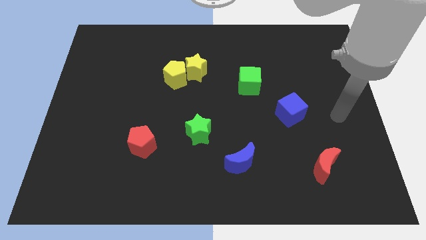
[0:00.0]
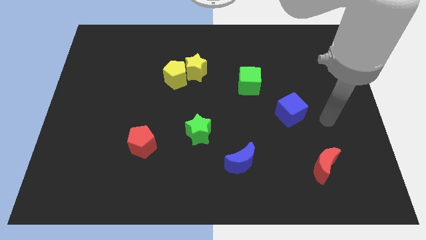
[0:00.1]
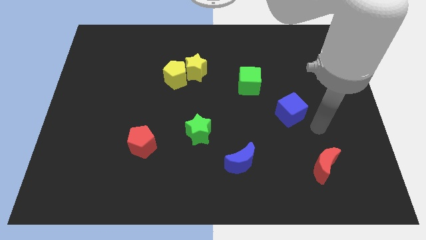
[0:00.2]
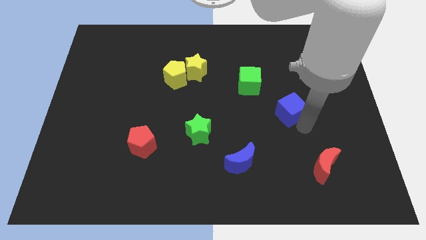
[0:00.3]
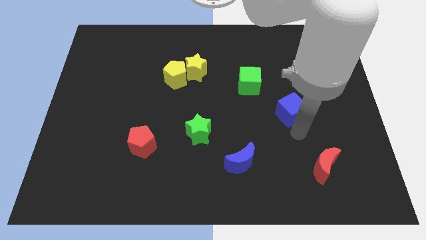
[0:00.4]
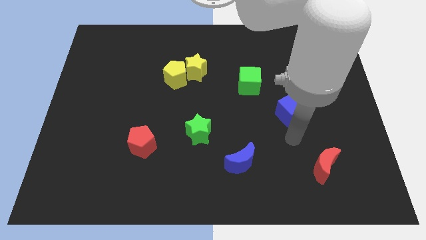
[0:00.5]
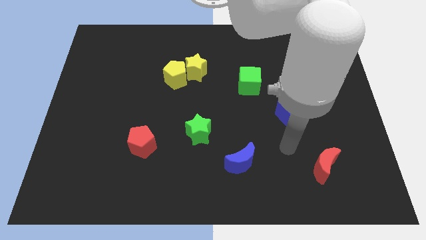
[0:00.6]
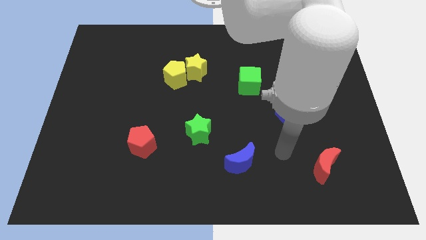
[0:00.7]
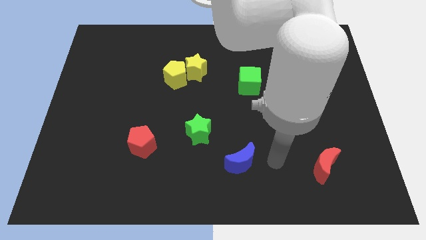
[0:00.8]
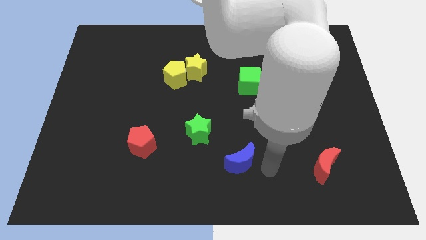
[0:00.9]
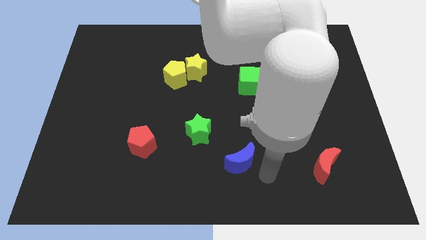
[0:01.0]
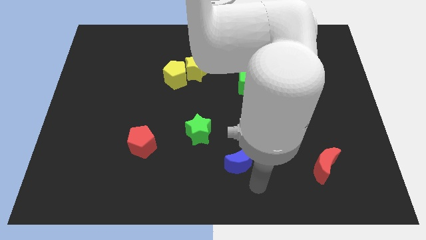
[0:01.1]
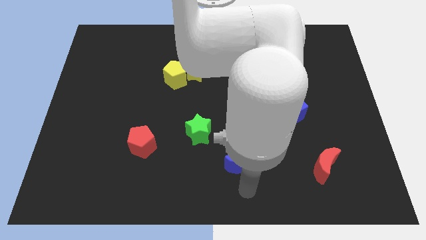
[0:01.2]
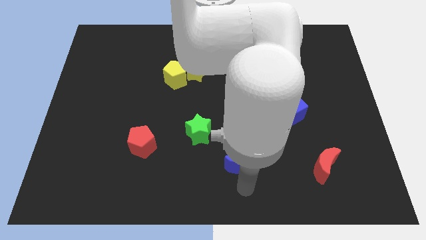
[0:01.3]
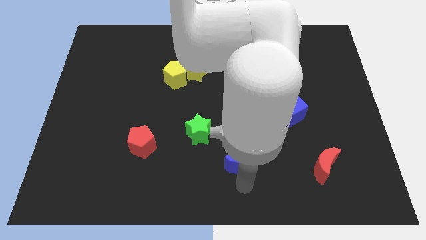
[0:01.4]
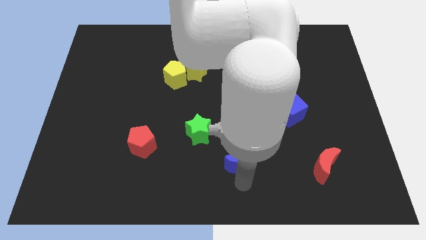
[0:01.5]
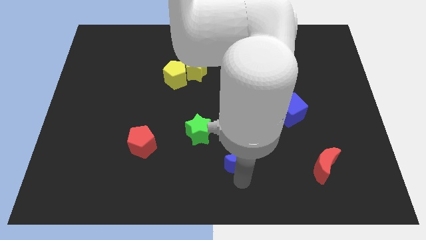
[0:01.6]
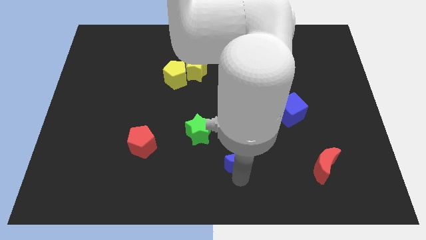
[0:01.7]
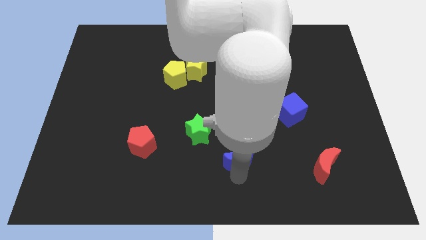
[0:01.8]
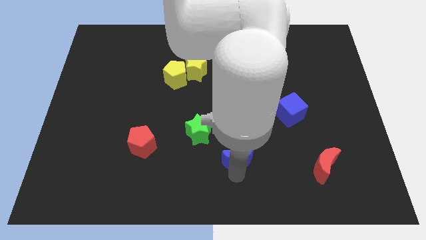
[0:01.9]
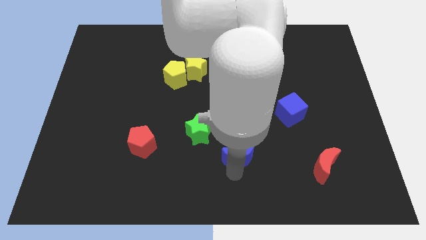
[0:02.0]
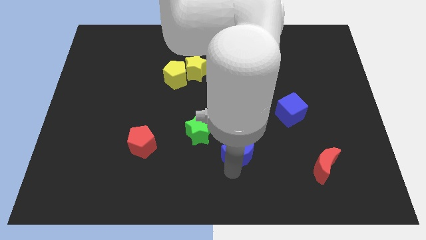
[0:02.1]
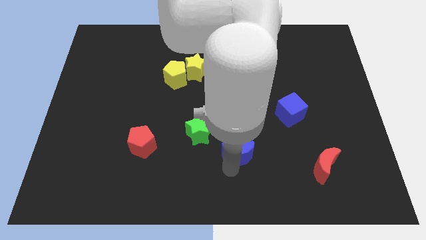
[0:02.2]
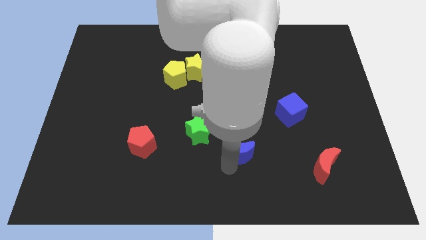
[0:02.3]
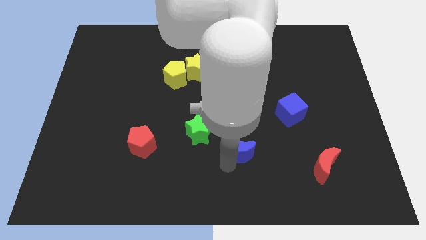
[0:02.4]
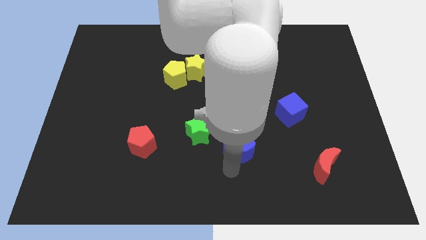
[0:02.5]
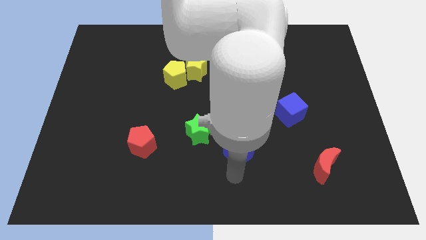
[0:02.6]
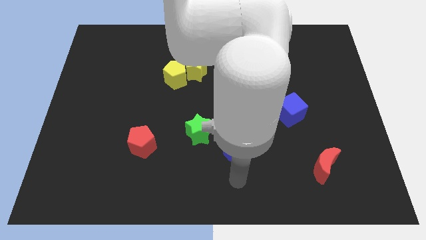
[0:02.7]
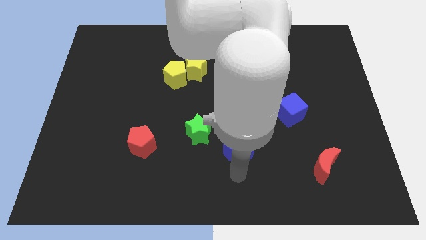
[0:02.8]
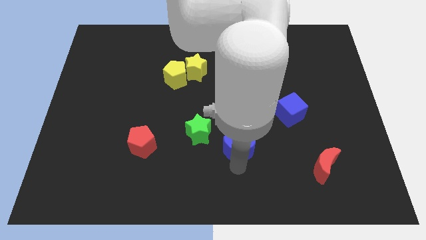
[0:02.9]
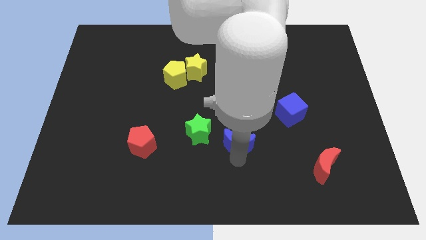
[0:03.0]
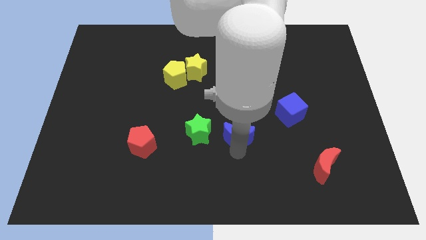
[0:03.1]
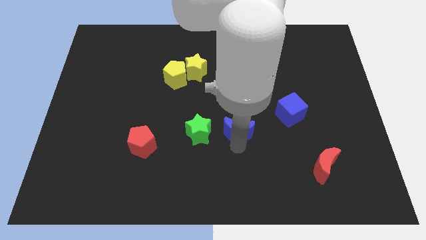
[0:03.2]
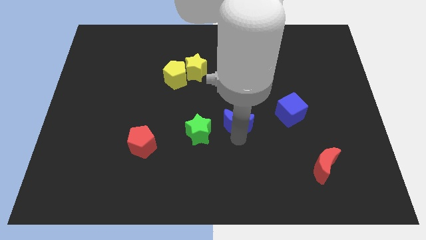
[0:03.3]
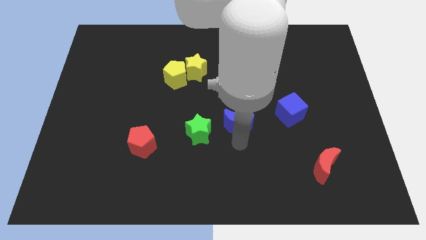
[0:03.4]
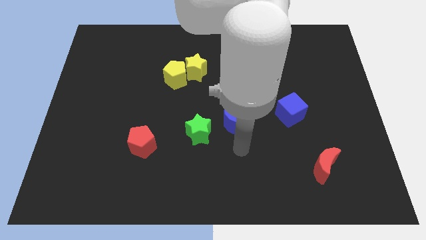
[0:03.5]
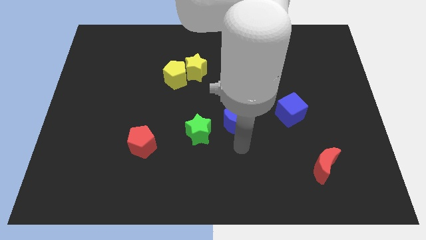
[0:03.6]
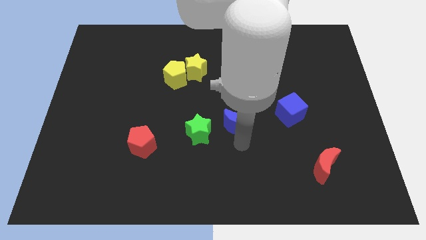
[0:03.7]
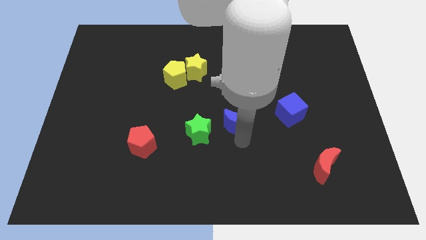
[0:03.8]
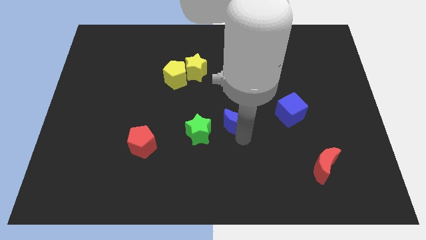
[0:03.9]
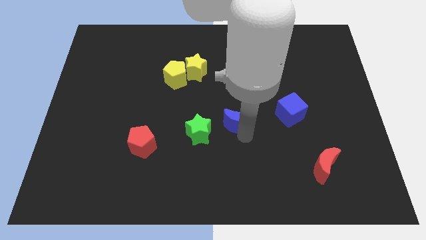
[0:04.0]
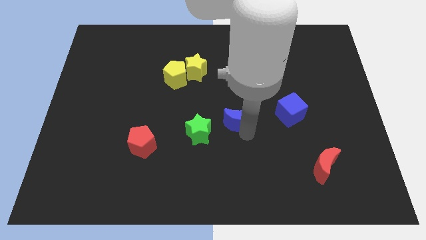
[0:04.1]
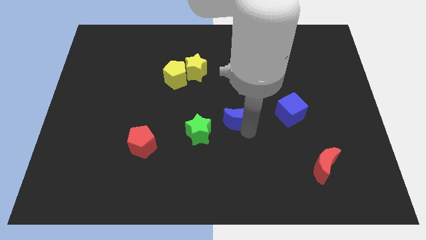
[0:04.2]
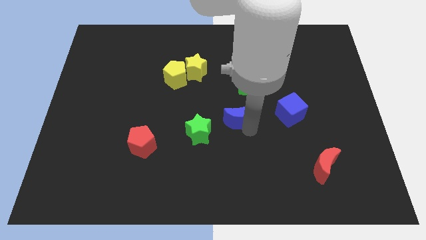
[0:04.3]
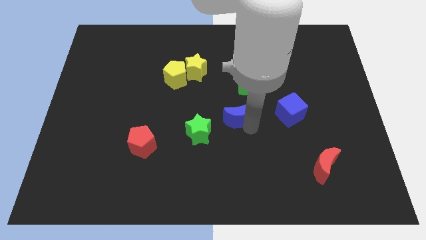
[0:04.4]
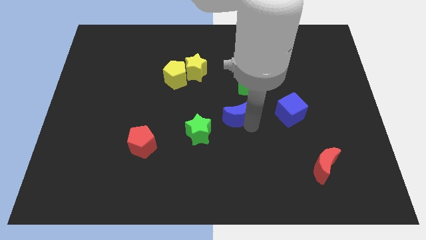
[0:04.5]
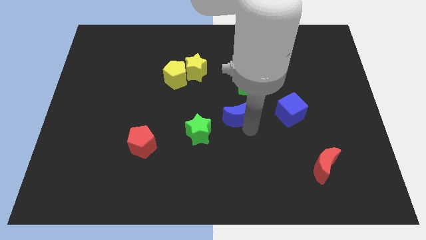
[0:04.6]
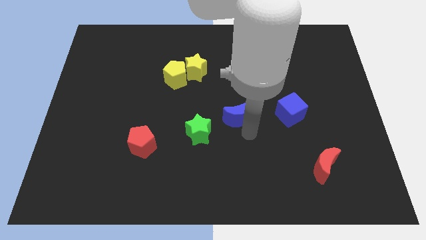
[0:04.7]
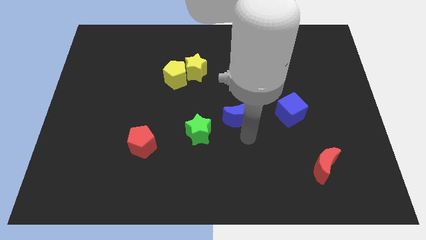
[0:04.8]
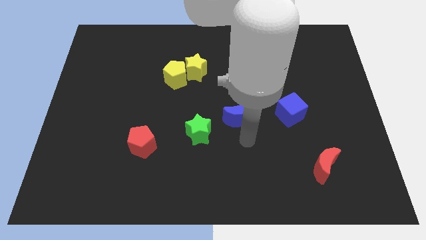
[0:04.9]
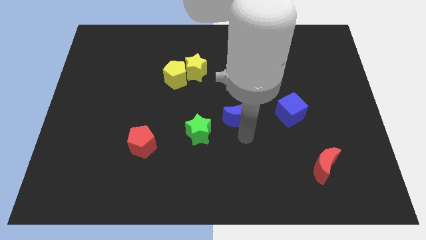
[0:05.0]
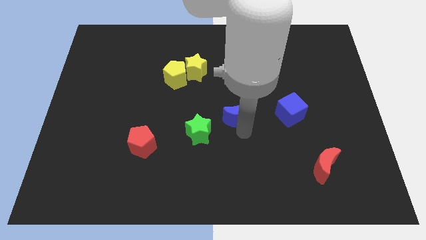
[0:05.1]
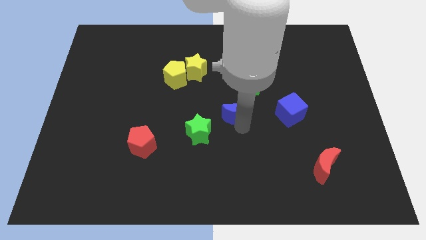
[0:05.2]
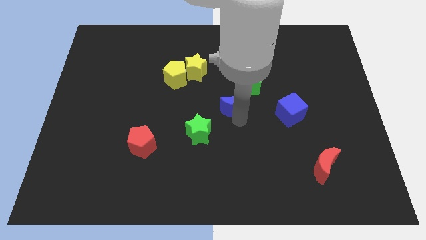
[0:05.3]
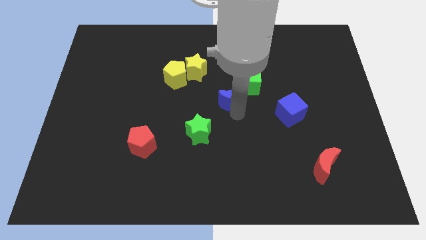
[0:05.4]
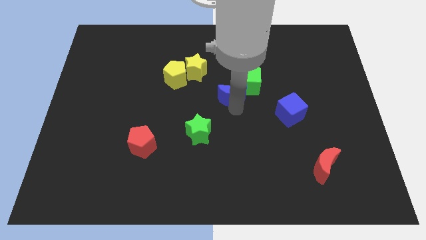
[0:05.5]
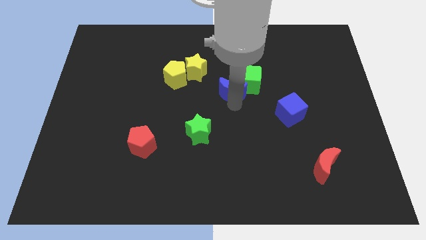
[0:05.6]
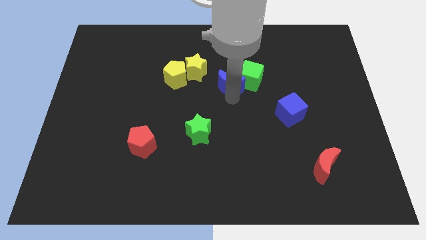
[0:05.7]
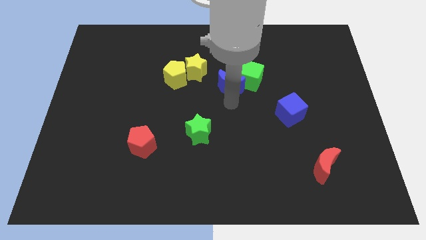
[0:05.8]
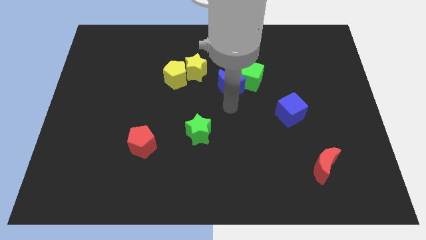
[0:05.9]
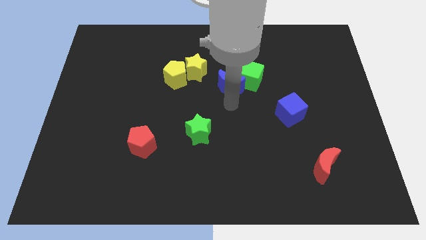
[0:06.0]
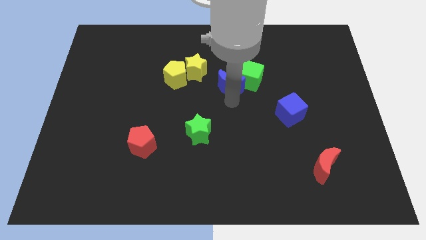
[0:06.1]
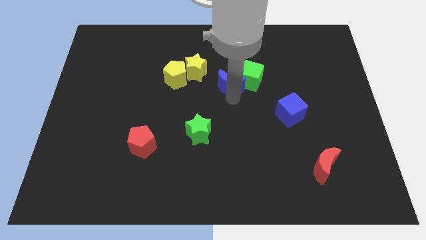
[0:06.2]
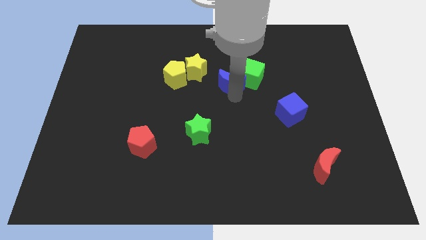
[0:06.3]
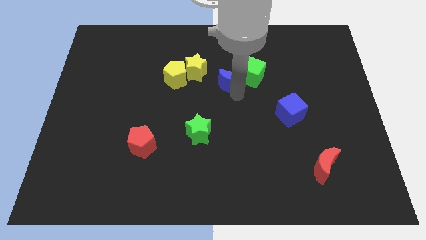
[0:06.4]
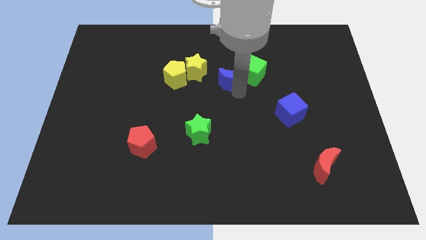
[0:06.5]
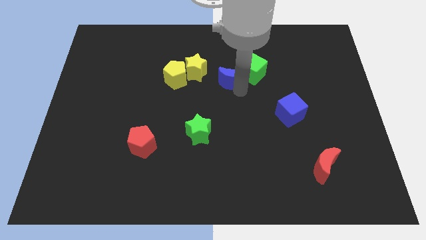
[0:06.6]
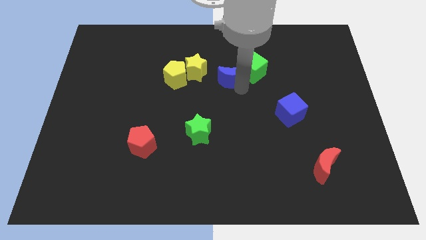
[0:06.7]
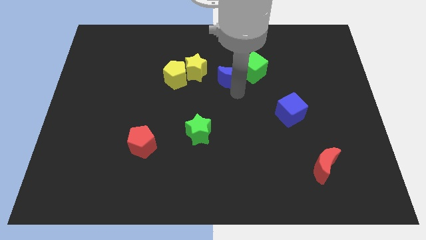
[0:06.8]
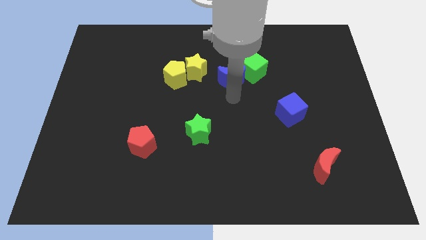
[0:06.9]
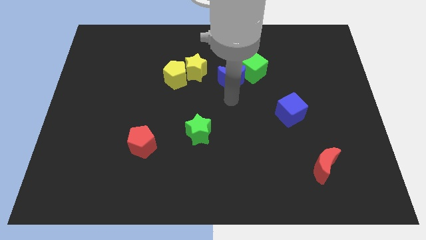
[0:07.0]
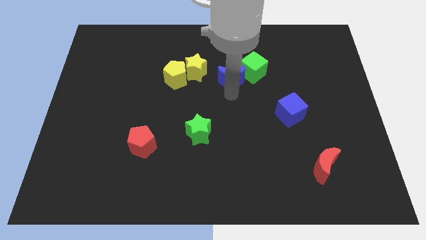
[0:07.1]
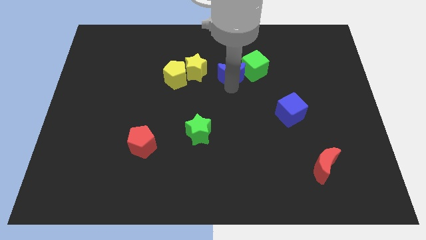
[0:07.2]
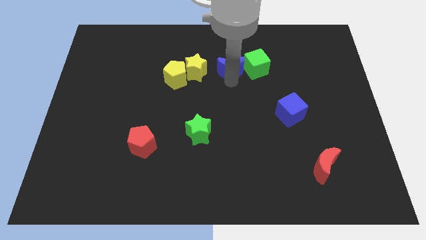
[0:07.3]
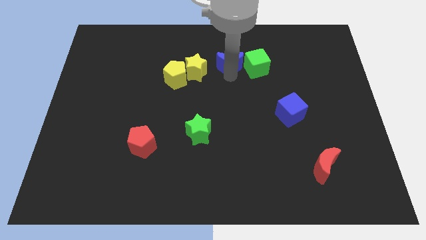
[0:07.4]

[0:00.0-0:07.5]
slide the blue moon diagonally up and to the left of the green cube
